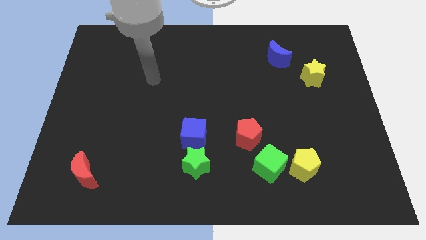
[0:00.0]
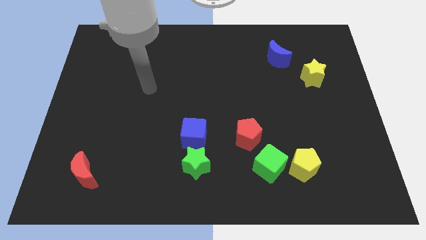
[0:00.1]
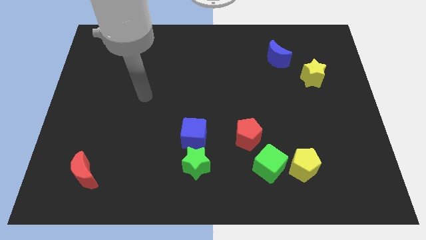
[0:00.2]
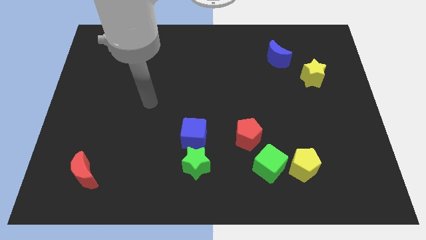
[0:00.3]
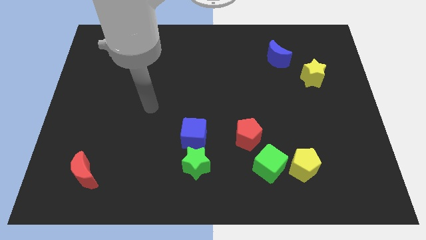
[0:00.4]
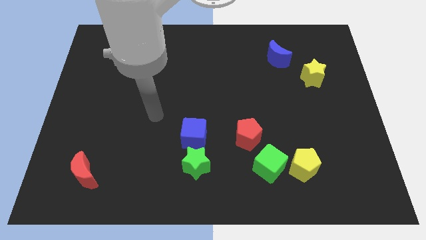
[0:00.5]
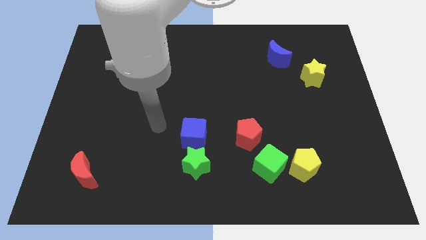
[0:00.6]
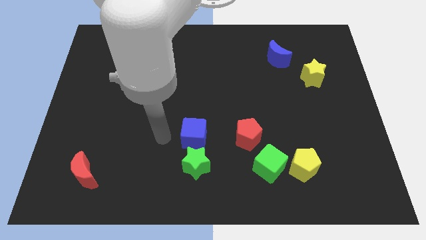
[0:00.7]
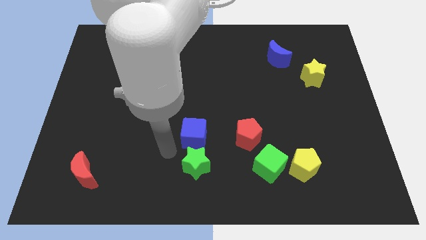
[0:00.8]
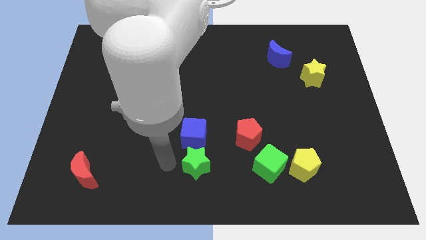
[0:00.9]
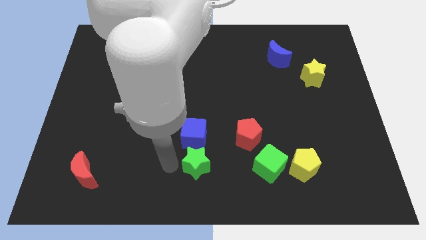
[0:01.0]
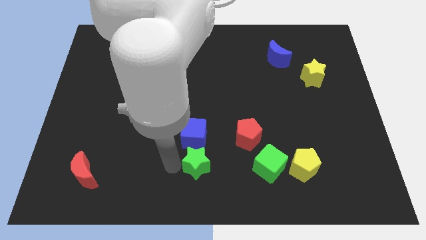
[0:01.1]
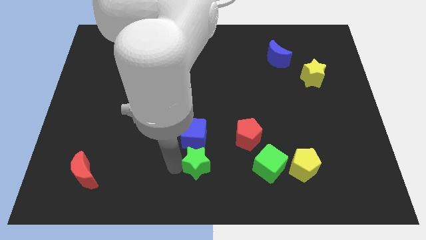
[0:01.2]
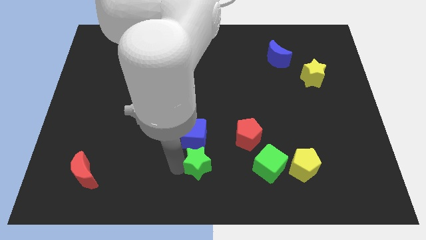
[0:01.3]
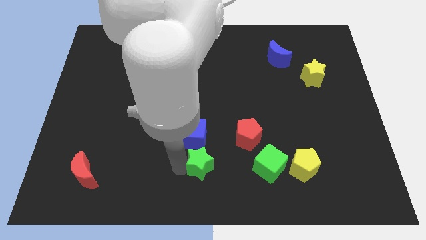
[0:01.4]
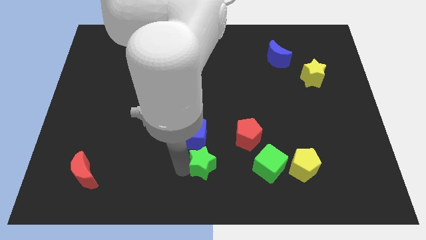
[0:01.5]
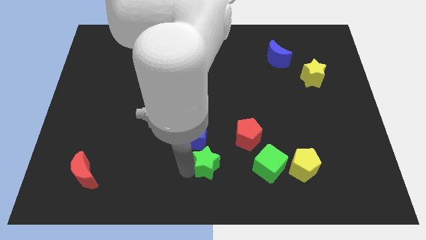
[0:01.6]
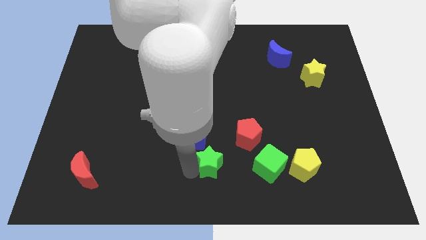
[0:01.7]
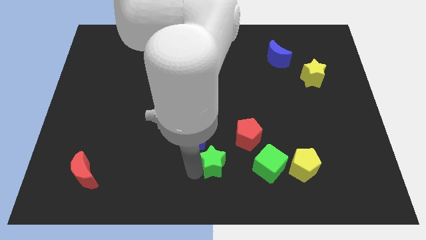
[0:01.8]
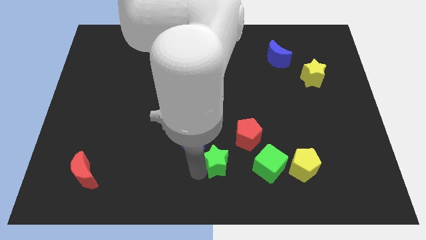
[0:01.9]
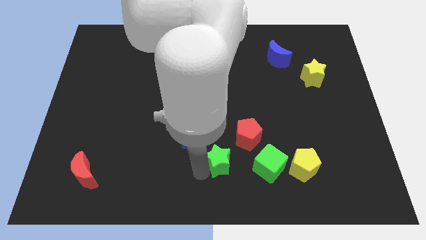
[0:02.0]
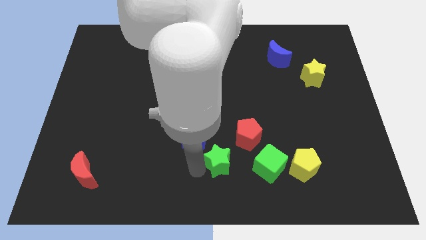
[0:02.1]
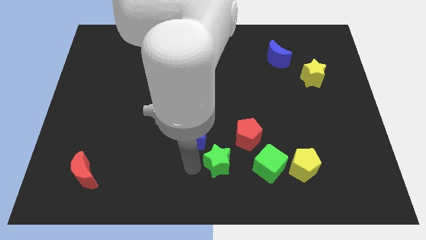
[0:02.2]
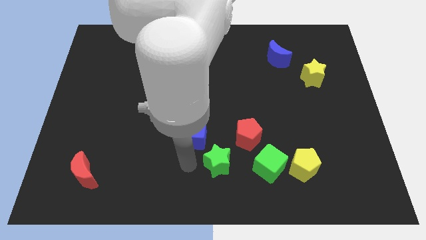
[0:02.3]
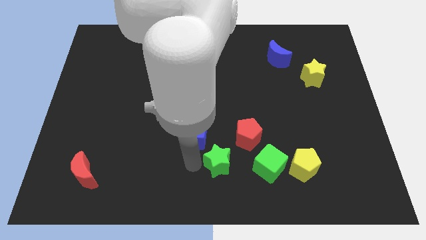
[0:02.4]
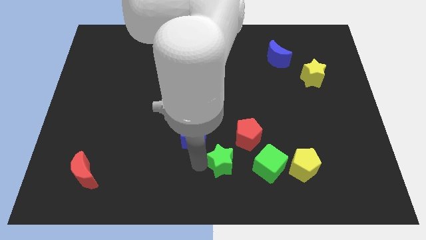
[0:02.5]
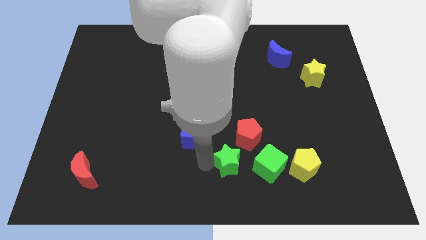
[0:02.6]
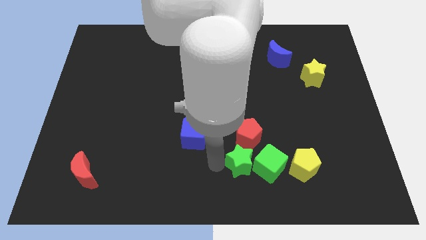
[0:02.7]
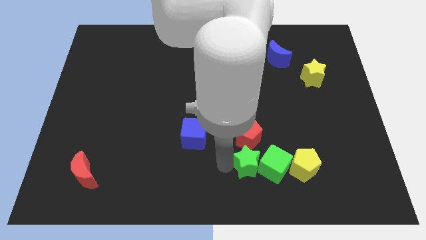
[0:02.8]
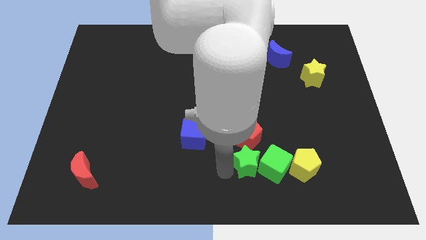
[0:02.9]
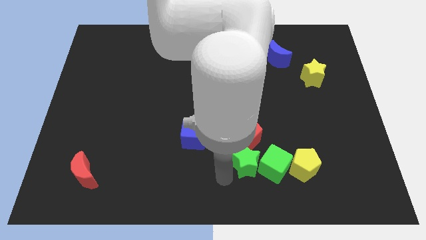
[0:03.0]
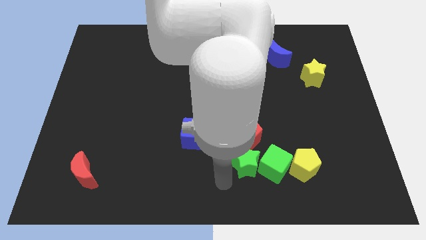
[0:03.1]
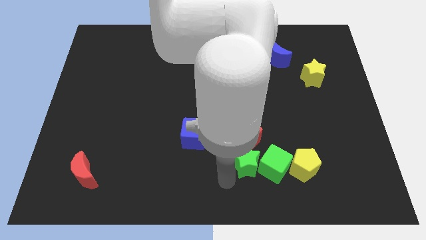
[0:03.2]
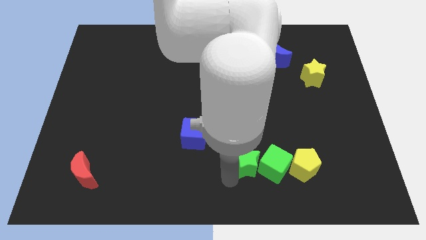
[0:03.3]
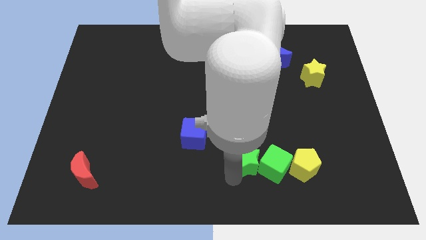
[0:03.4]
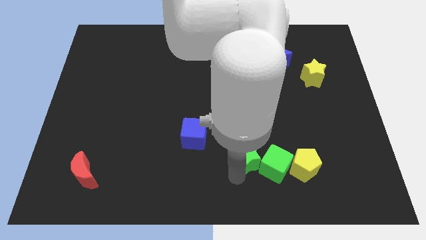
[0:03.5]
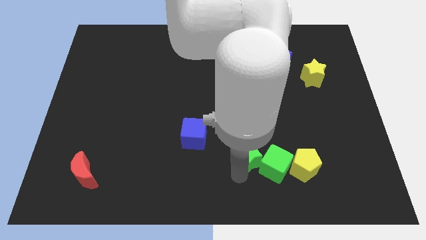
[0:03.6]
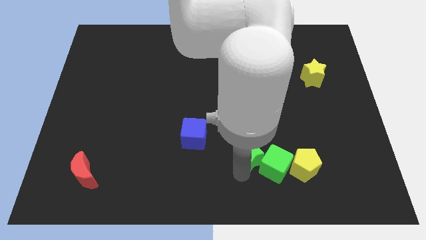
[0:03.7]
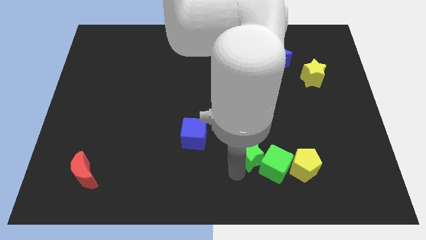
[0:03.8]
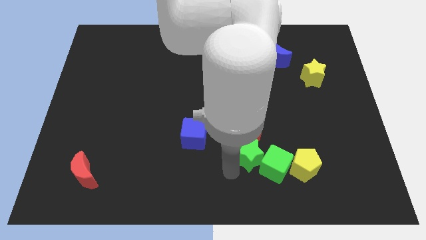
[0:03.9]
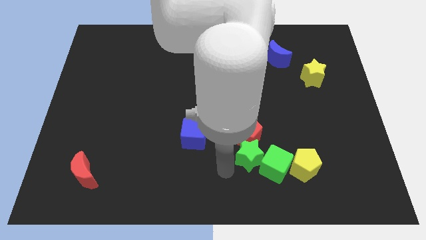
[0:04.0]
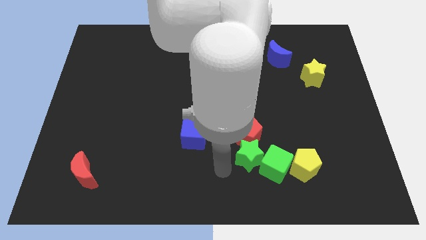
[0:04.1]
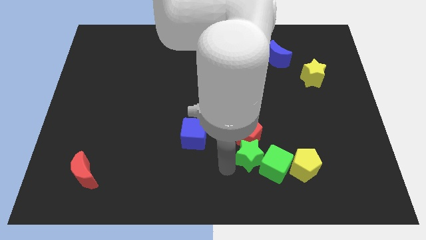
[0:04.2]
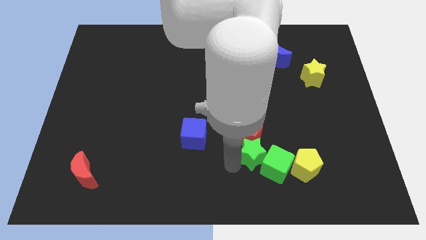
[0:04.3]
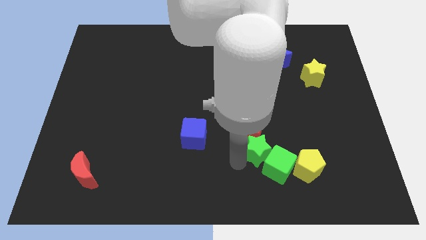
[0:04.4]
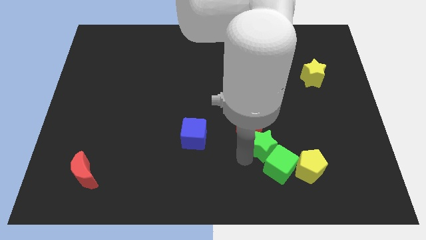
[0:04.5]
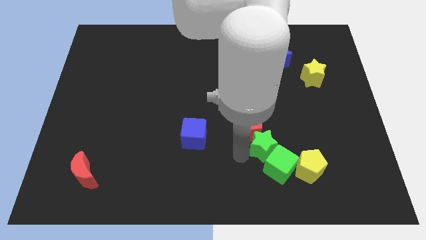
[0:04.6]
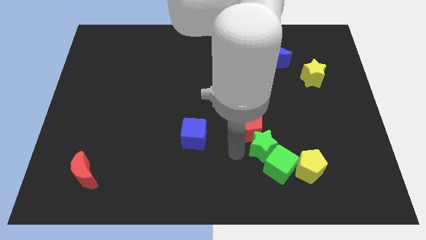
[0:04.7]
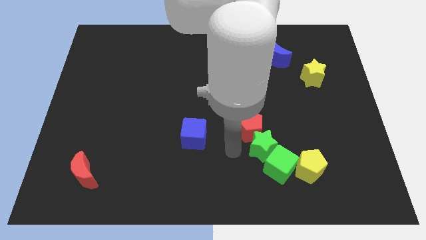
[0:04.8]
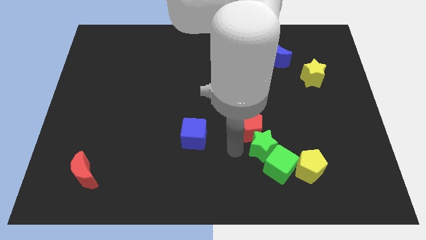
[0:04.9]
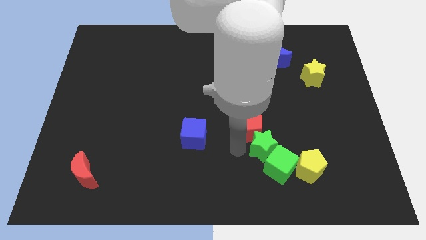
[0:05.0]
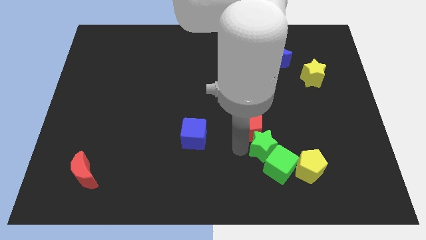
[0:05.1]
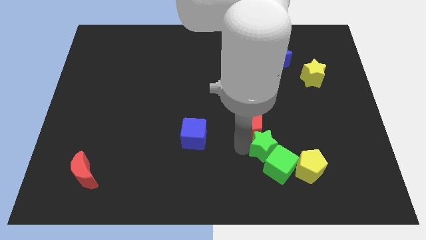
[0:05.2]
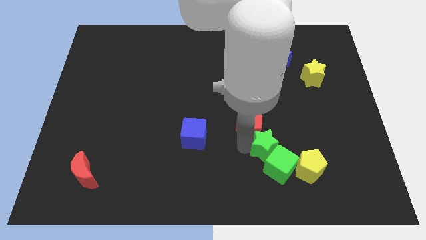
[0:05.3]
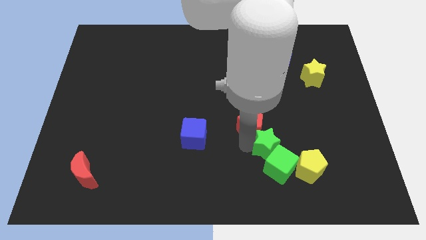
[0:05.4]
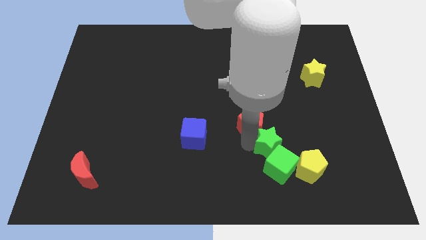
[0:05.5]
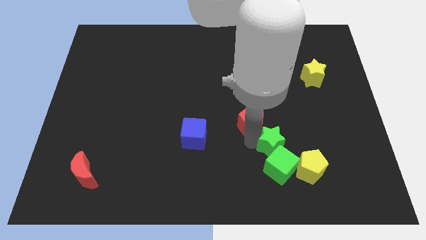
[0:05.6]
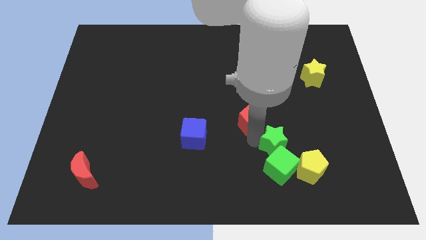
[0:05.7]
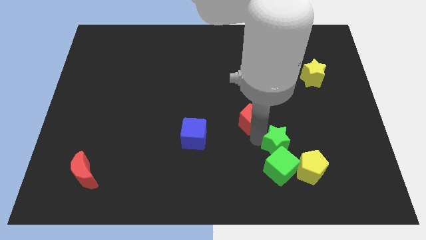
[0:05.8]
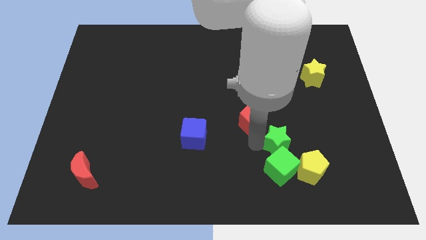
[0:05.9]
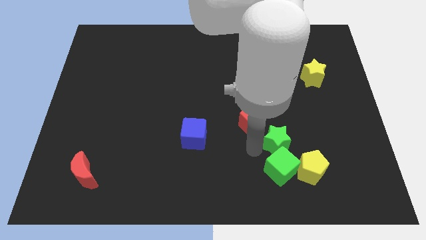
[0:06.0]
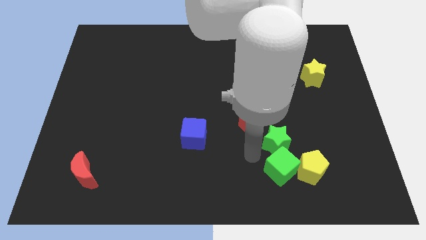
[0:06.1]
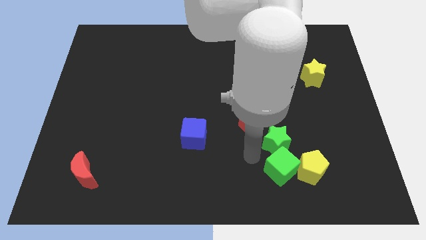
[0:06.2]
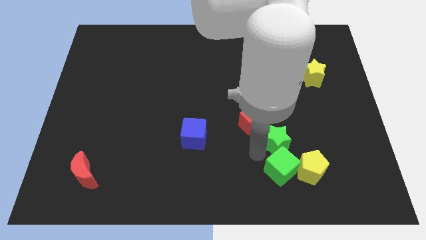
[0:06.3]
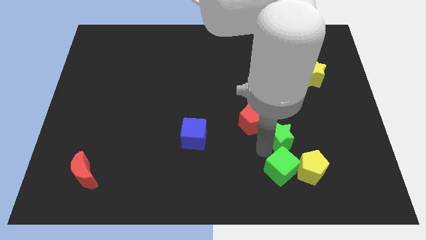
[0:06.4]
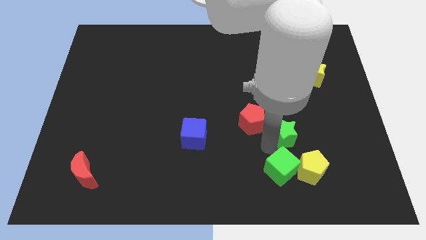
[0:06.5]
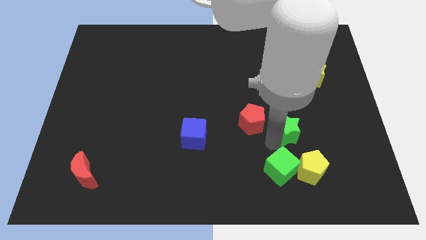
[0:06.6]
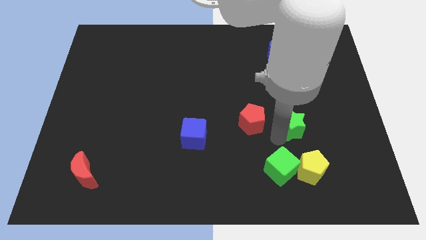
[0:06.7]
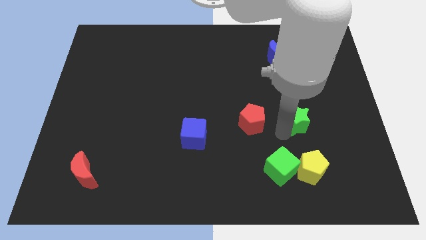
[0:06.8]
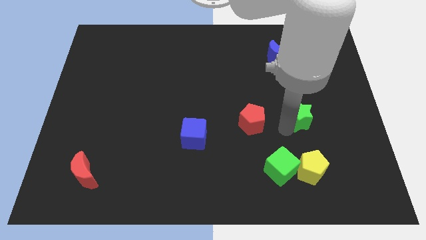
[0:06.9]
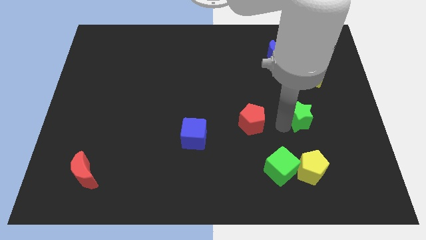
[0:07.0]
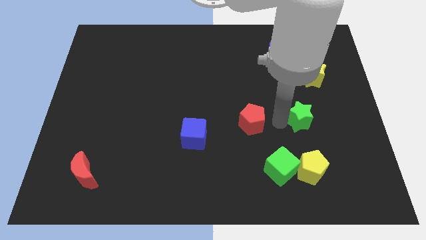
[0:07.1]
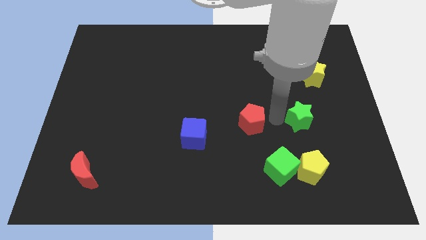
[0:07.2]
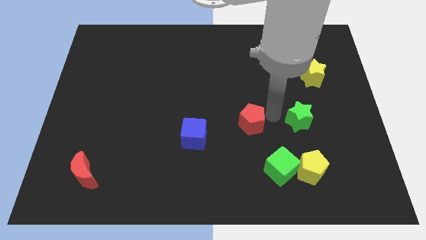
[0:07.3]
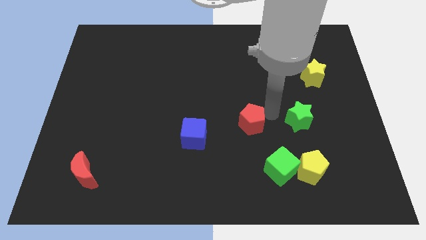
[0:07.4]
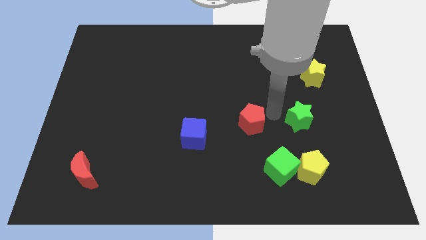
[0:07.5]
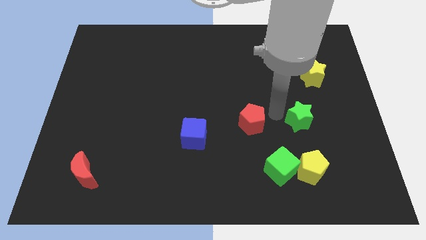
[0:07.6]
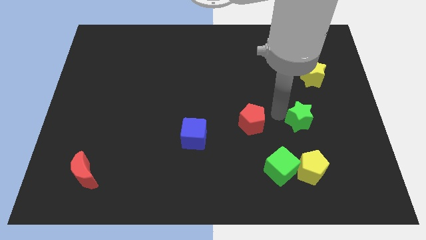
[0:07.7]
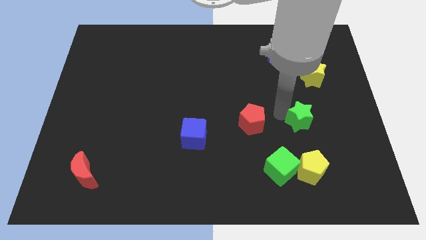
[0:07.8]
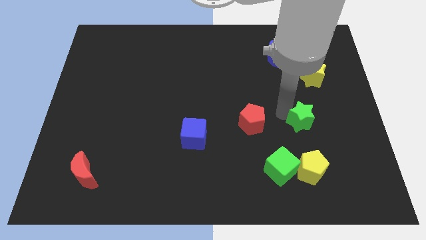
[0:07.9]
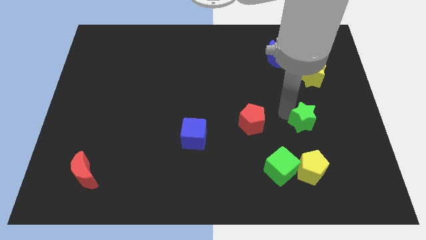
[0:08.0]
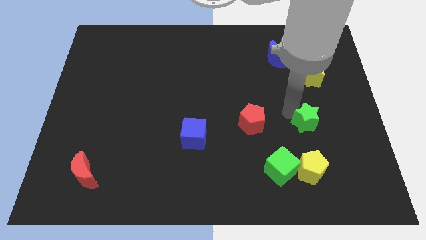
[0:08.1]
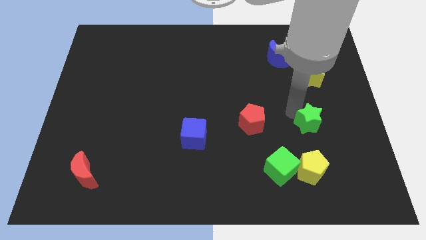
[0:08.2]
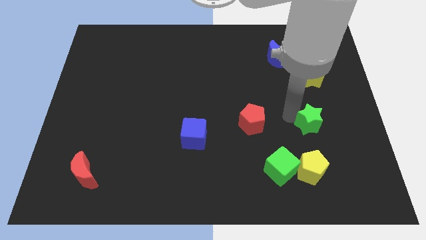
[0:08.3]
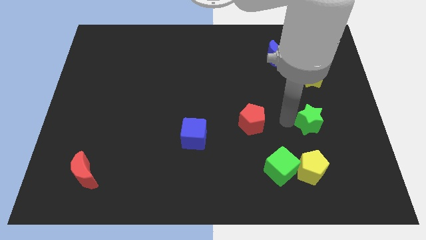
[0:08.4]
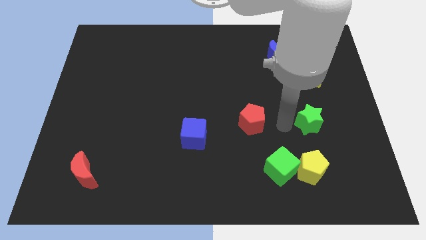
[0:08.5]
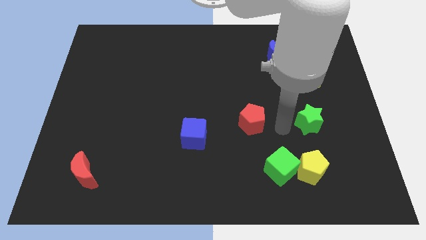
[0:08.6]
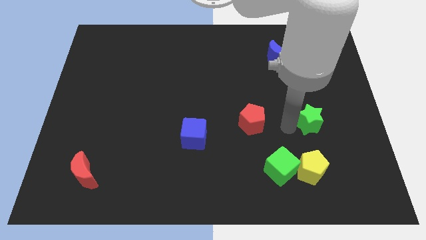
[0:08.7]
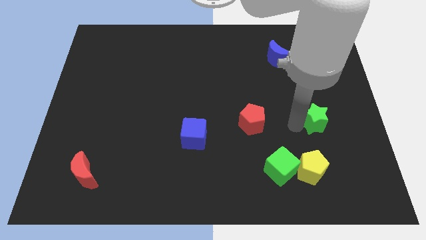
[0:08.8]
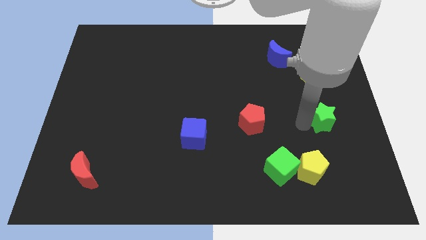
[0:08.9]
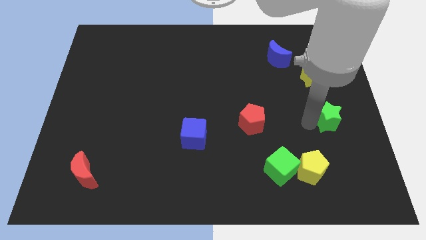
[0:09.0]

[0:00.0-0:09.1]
slide the green star to the center right
